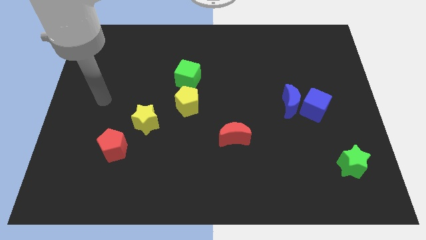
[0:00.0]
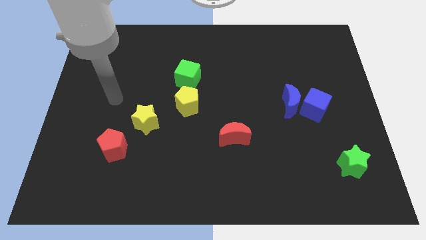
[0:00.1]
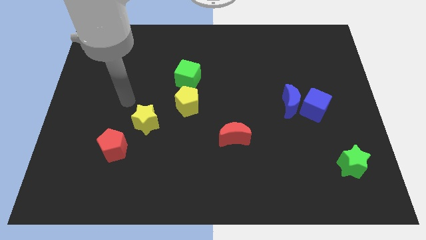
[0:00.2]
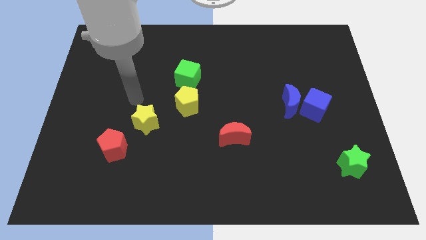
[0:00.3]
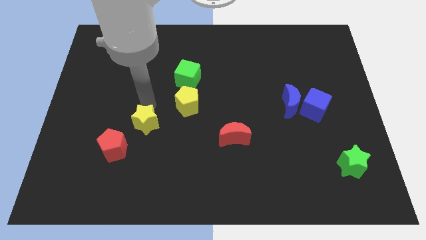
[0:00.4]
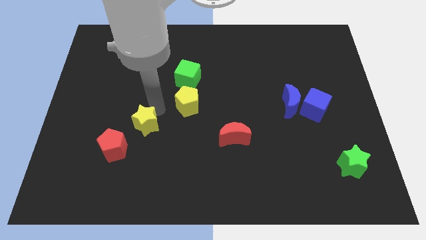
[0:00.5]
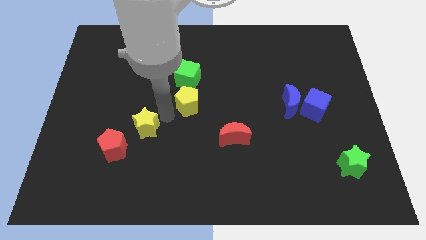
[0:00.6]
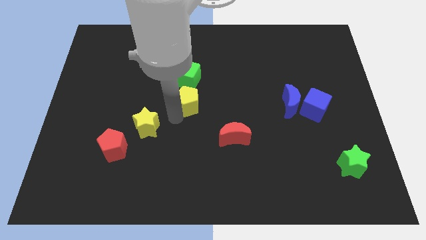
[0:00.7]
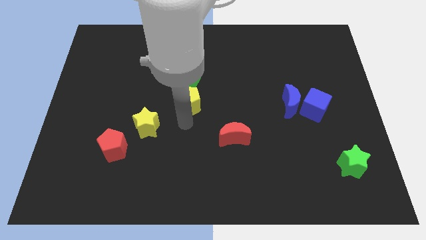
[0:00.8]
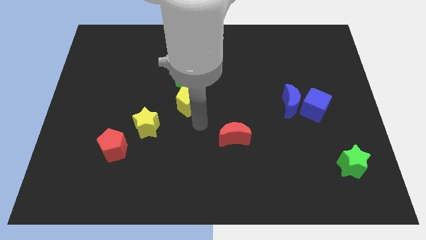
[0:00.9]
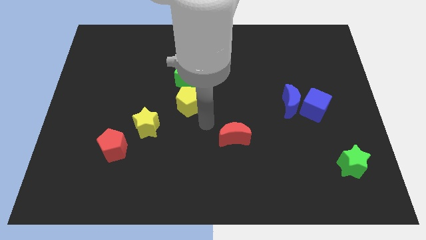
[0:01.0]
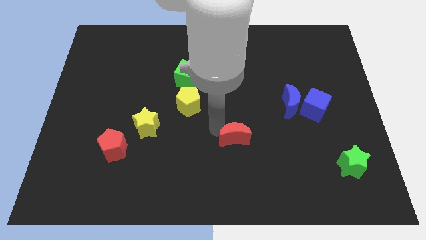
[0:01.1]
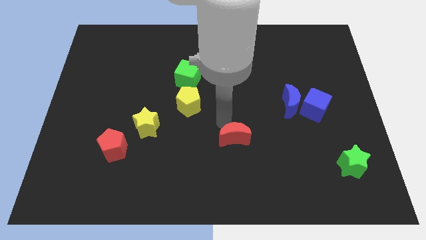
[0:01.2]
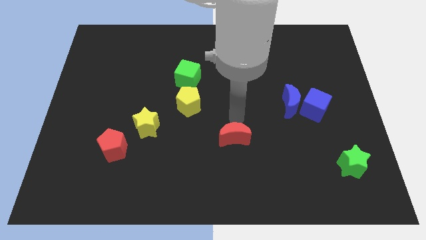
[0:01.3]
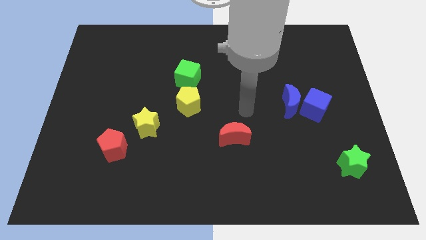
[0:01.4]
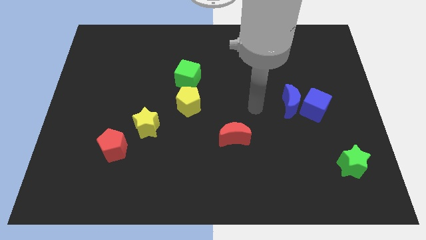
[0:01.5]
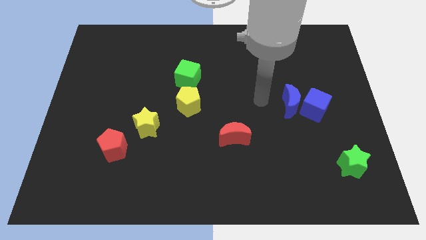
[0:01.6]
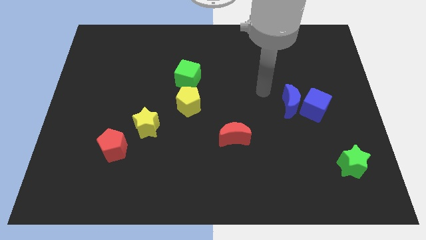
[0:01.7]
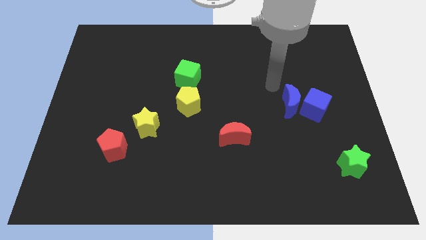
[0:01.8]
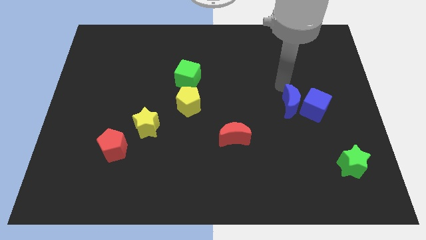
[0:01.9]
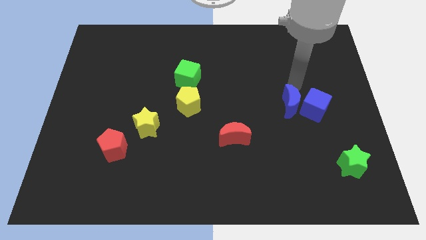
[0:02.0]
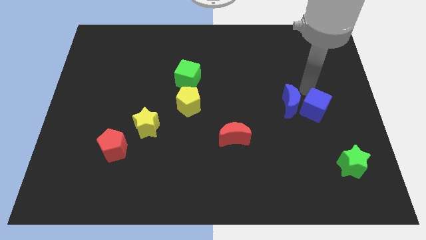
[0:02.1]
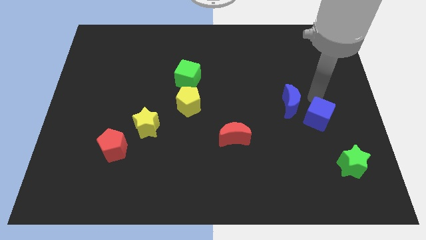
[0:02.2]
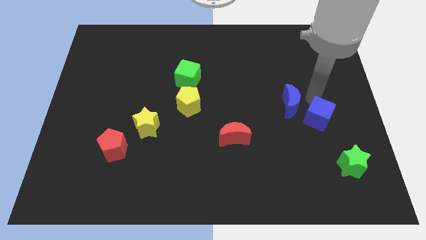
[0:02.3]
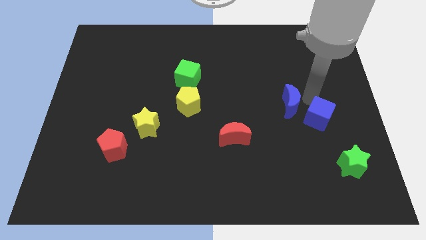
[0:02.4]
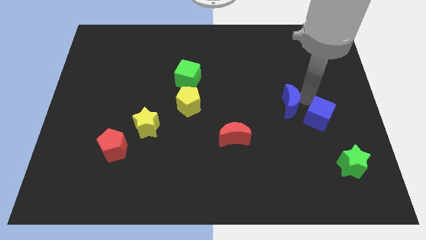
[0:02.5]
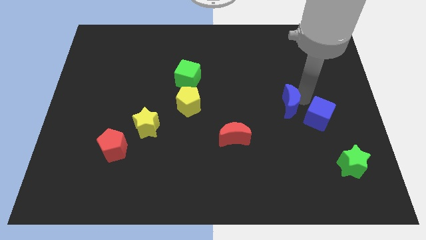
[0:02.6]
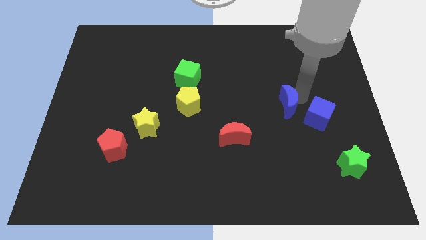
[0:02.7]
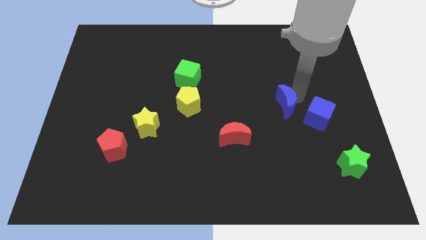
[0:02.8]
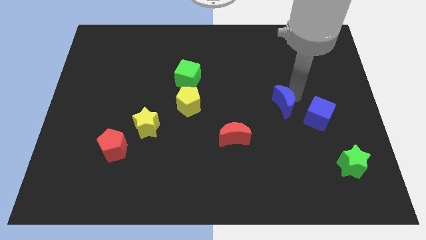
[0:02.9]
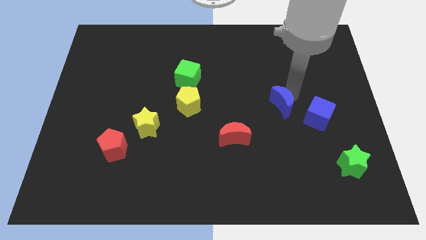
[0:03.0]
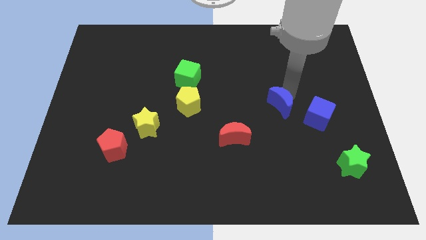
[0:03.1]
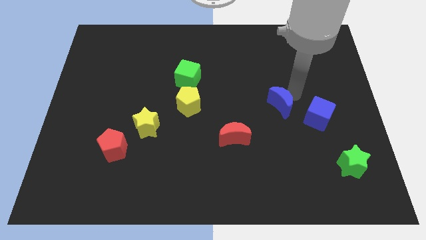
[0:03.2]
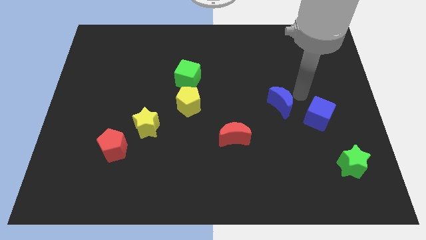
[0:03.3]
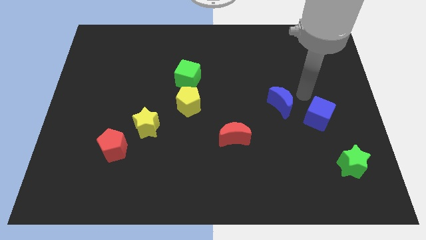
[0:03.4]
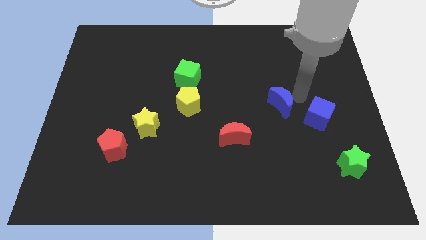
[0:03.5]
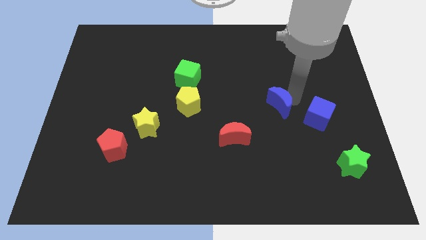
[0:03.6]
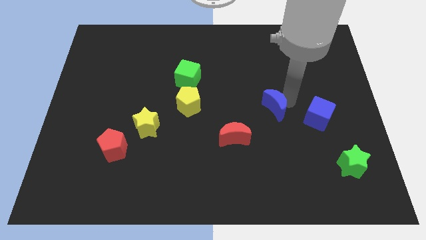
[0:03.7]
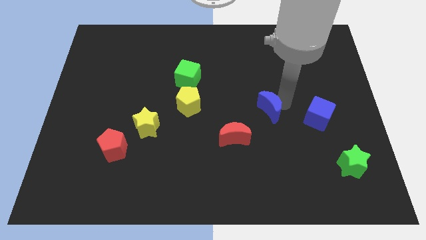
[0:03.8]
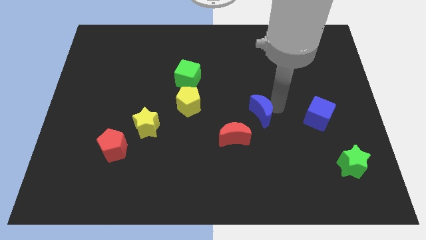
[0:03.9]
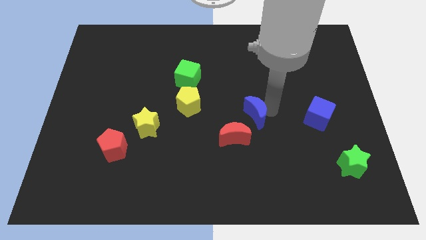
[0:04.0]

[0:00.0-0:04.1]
push the blue moon a little diagonally downwards and left

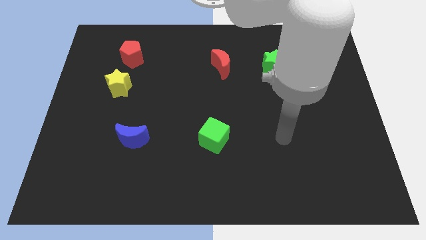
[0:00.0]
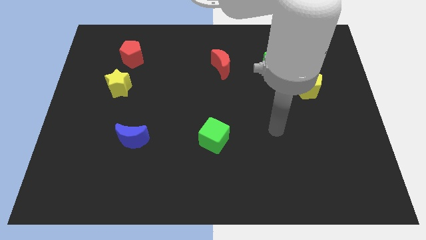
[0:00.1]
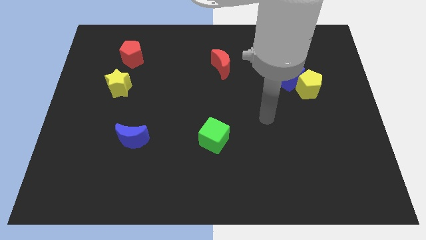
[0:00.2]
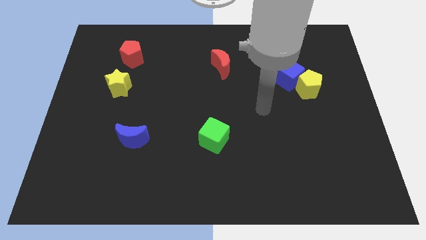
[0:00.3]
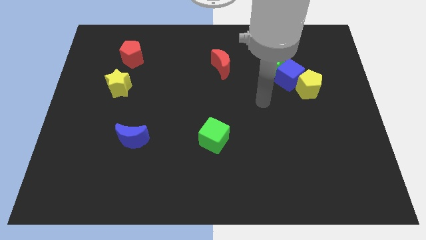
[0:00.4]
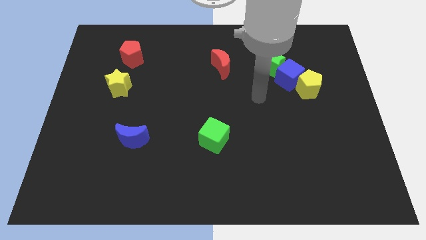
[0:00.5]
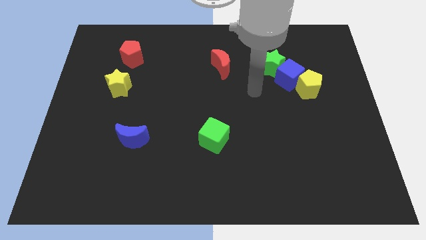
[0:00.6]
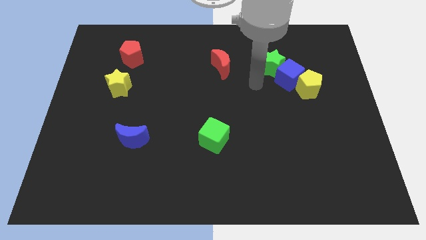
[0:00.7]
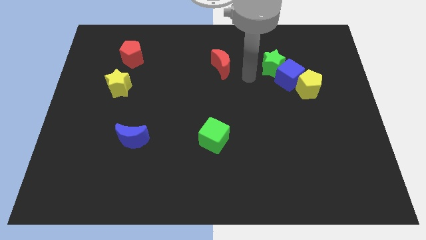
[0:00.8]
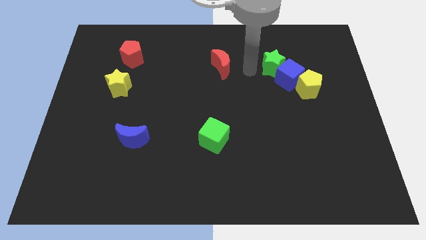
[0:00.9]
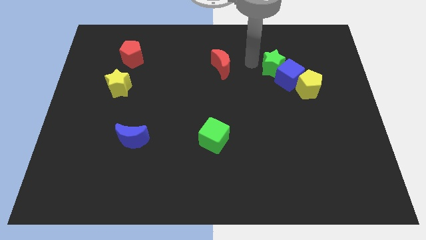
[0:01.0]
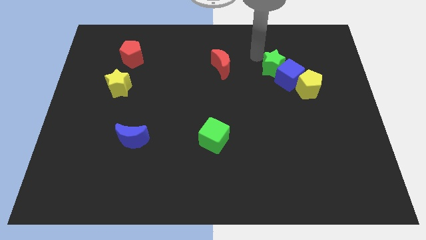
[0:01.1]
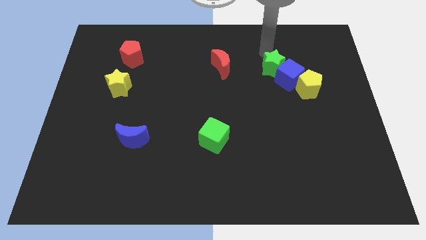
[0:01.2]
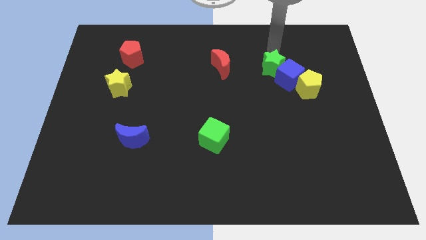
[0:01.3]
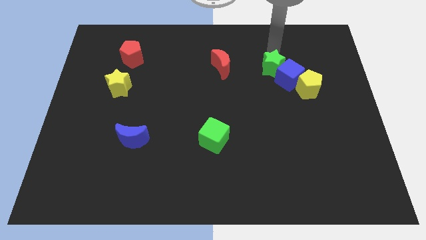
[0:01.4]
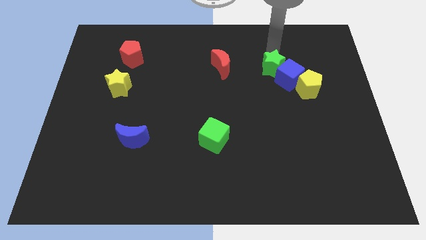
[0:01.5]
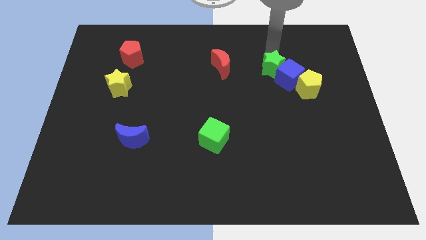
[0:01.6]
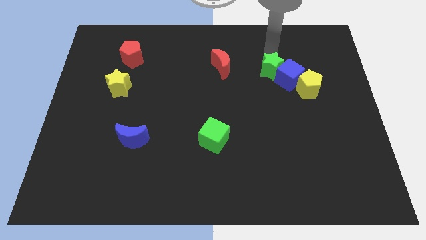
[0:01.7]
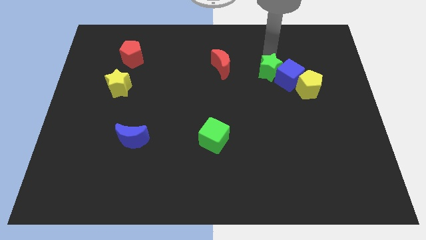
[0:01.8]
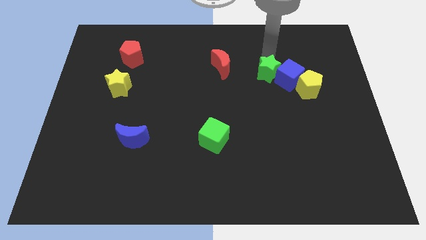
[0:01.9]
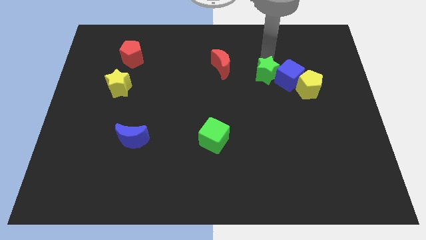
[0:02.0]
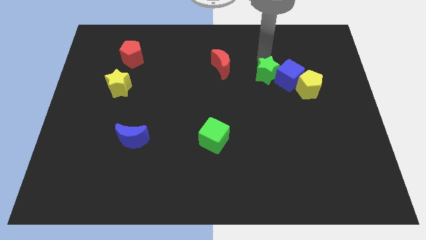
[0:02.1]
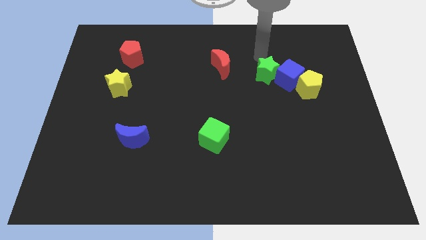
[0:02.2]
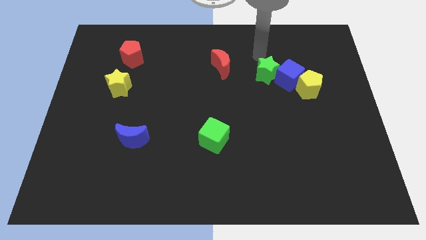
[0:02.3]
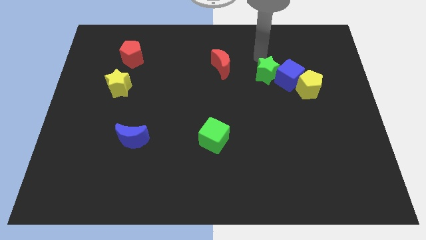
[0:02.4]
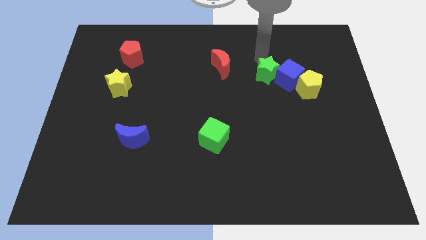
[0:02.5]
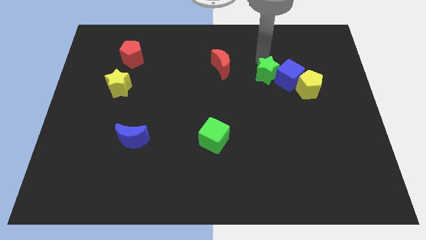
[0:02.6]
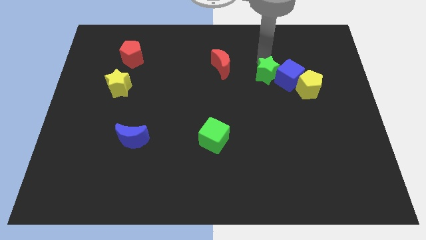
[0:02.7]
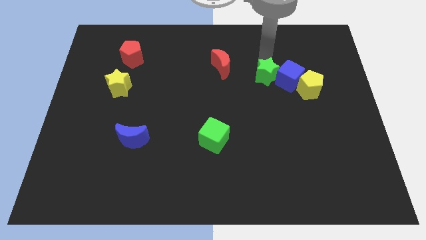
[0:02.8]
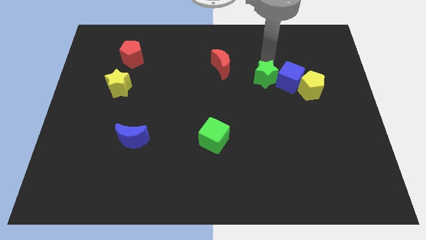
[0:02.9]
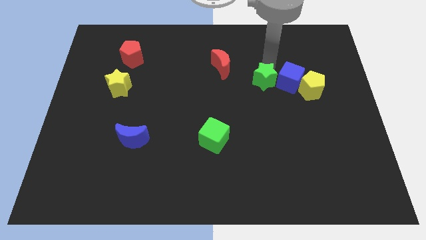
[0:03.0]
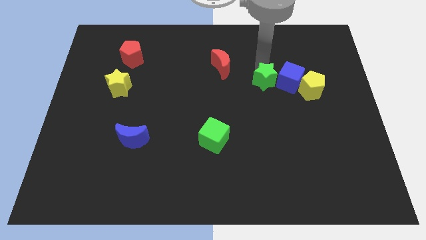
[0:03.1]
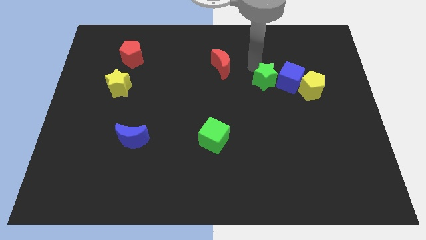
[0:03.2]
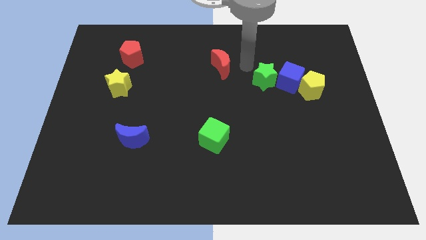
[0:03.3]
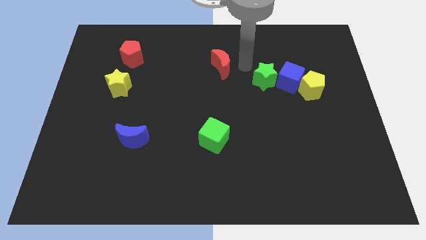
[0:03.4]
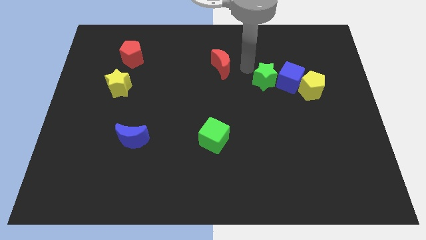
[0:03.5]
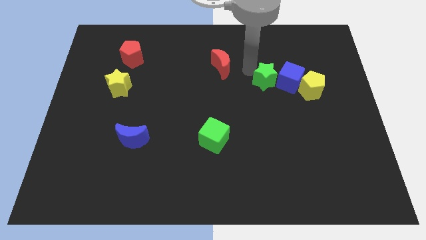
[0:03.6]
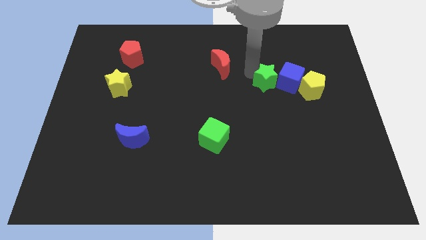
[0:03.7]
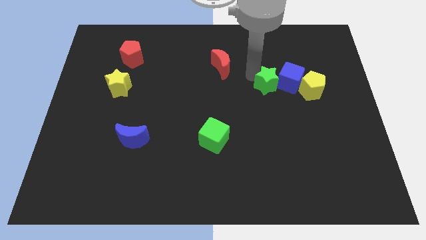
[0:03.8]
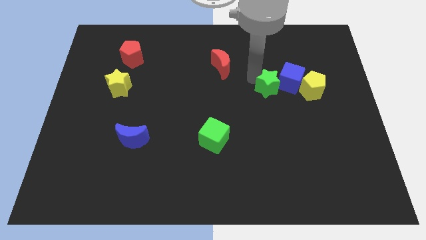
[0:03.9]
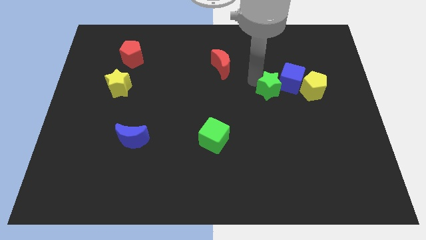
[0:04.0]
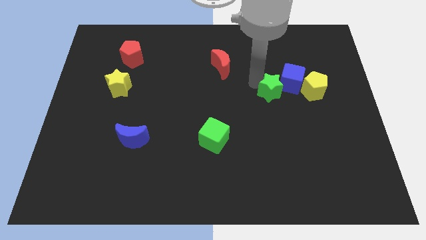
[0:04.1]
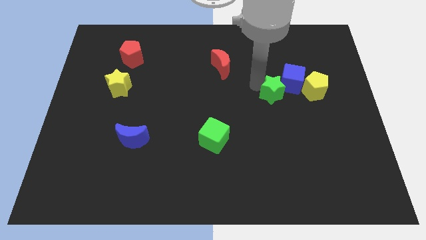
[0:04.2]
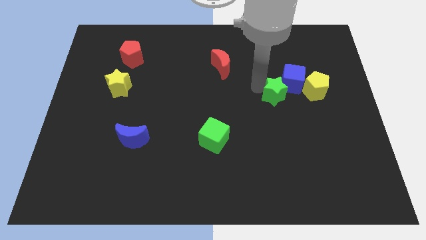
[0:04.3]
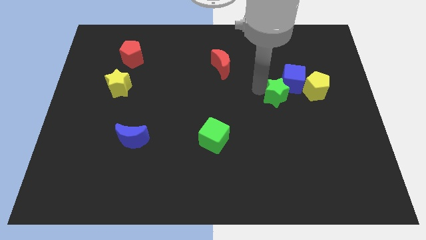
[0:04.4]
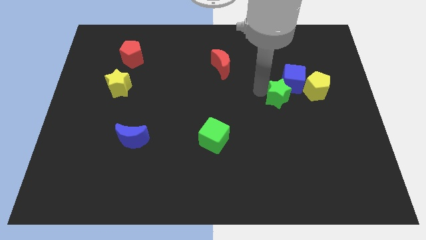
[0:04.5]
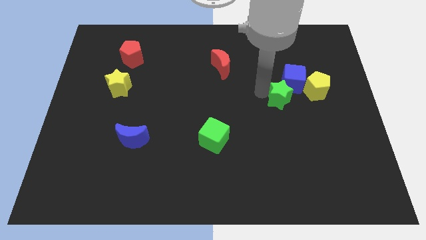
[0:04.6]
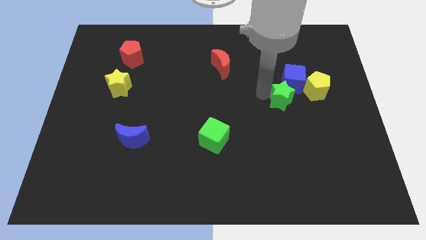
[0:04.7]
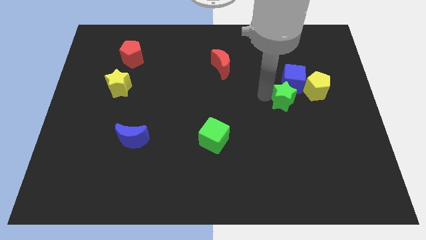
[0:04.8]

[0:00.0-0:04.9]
push the green star diagonally down and to the right a bit
